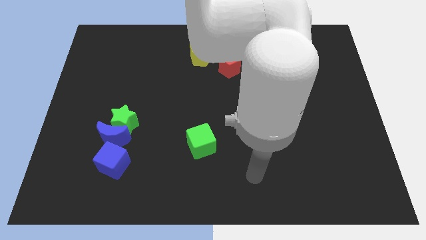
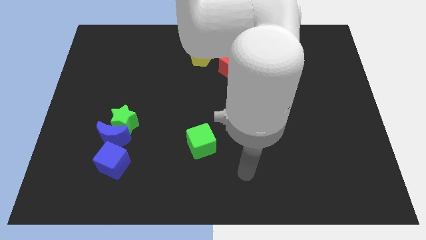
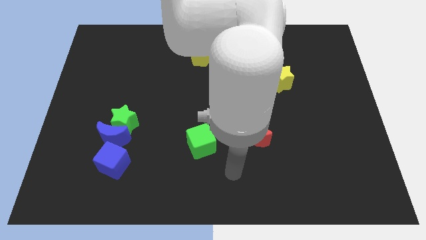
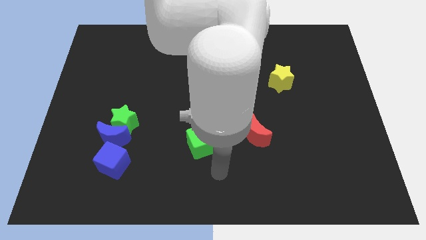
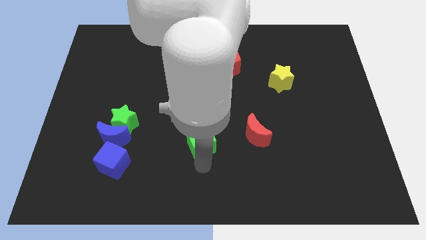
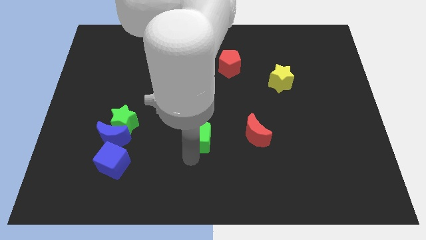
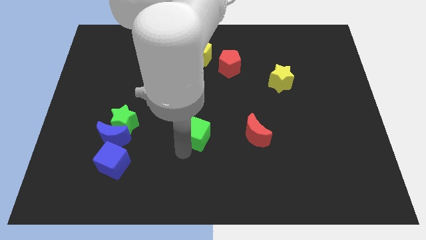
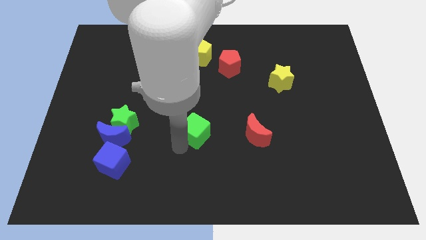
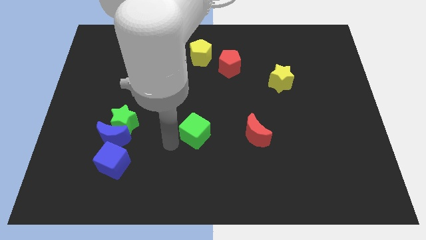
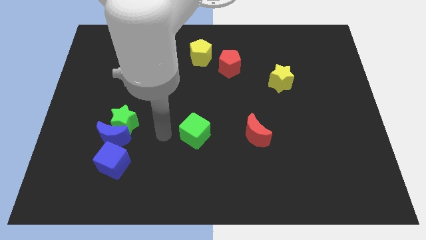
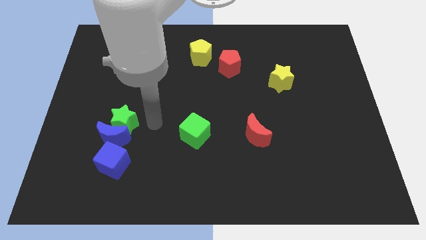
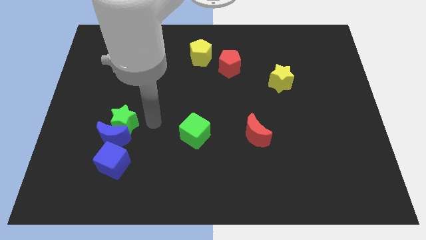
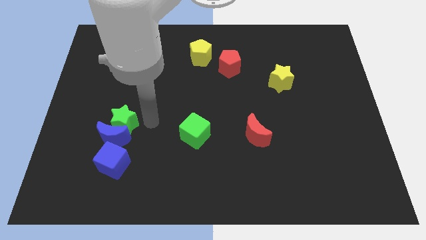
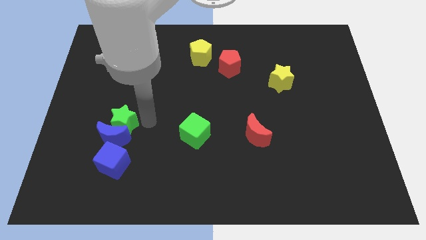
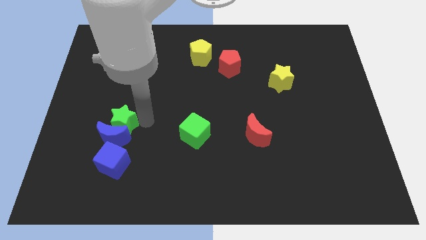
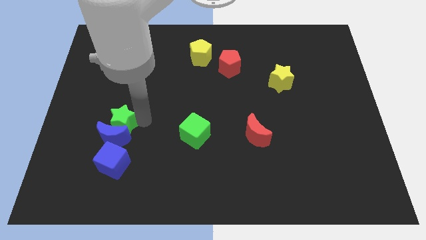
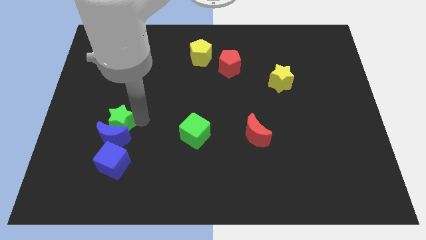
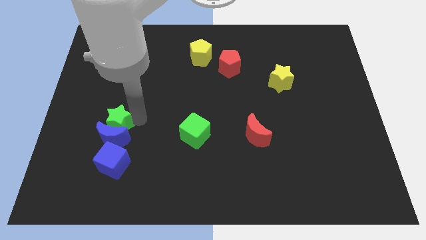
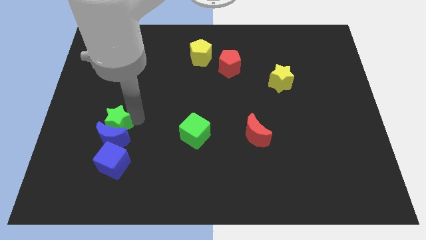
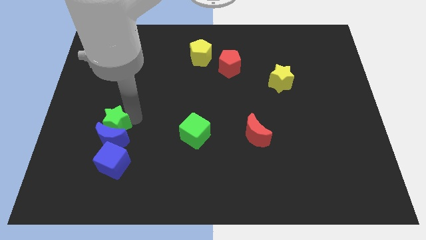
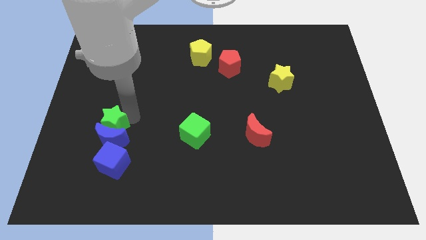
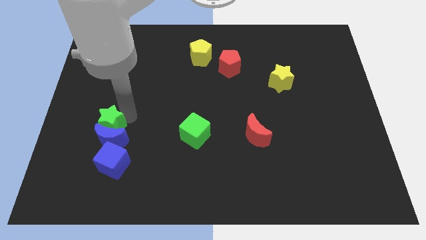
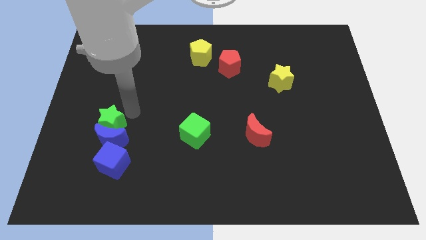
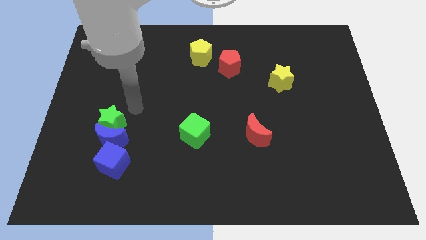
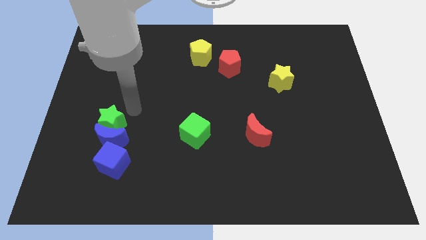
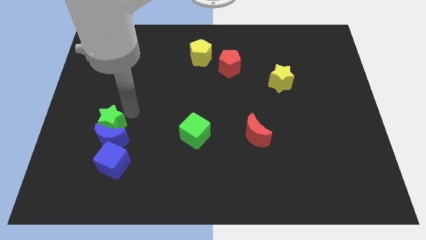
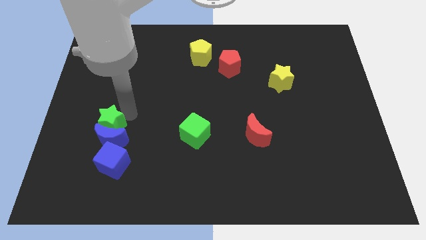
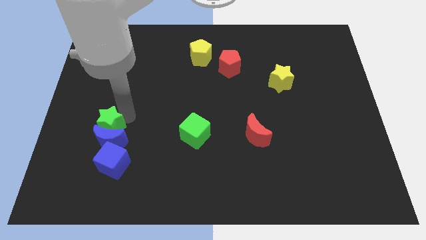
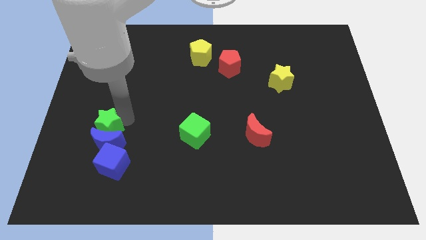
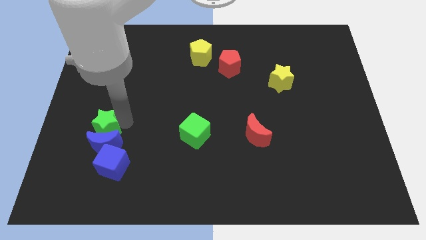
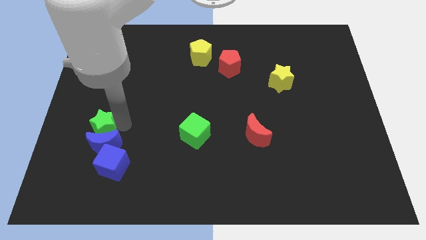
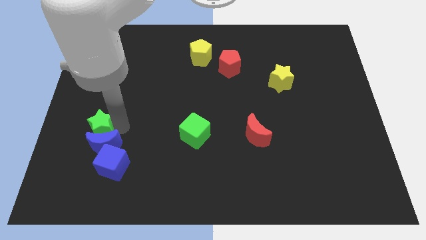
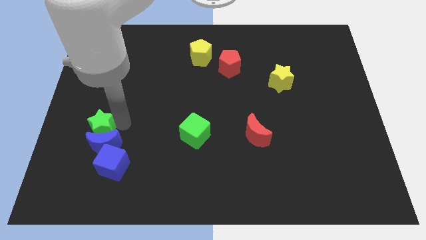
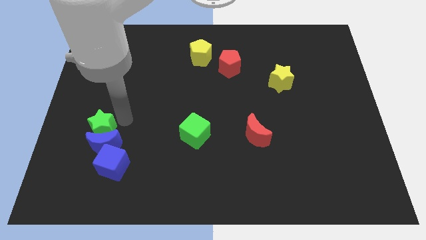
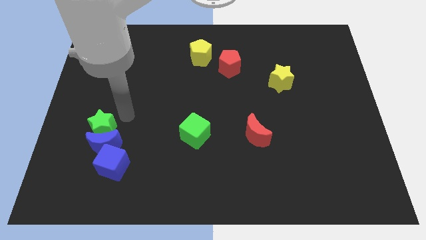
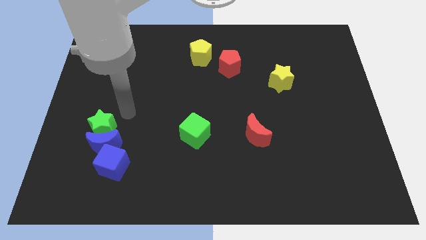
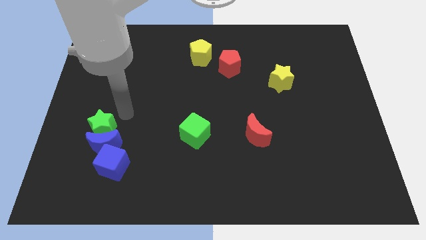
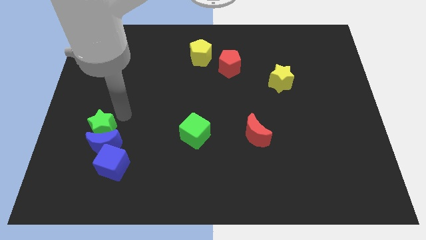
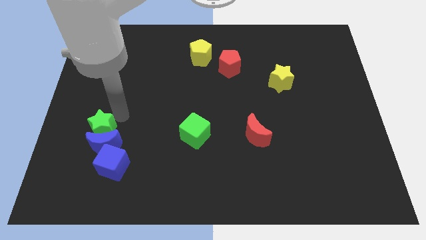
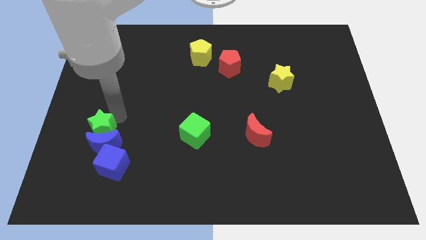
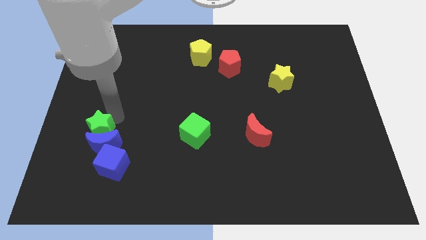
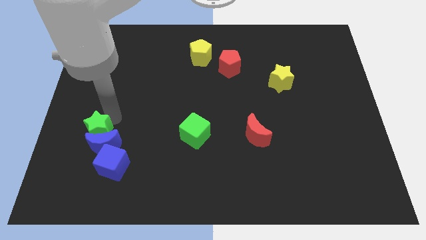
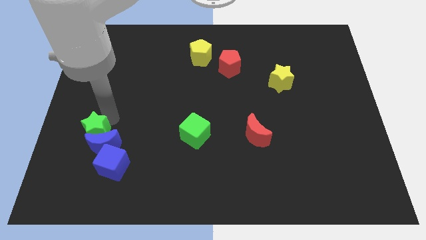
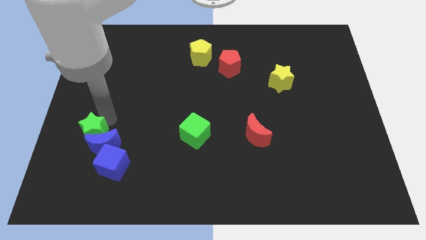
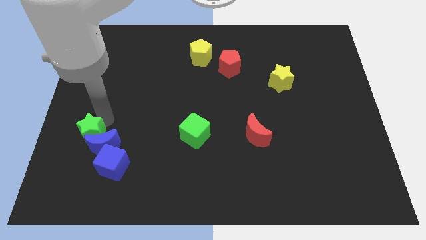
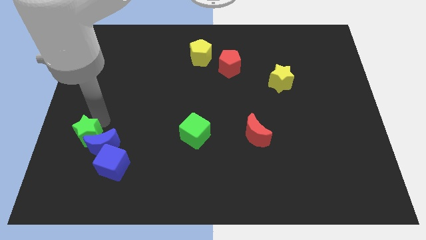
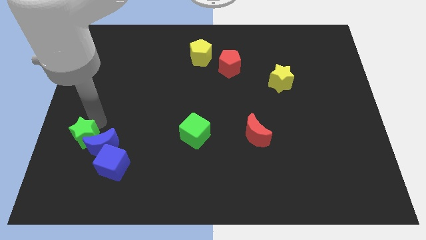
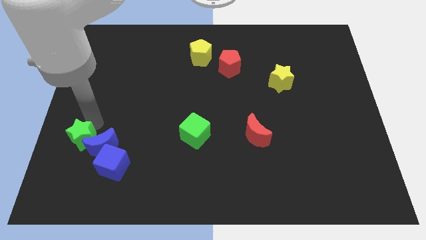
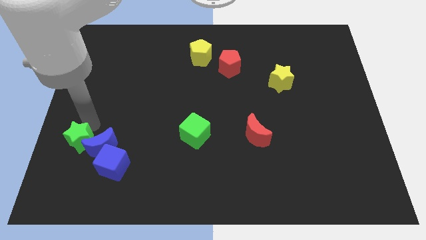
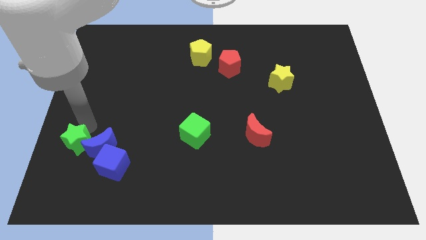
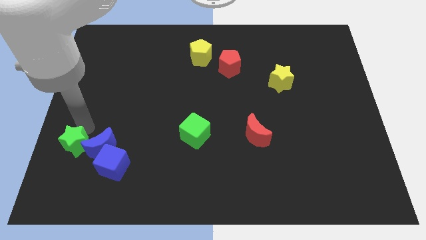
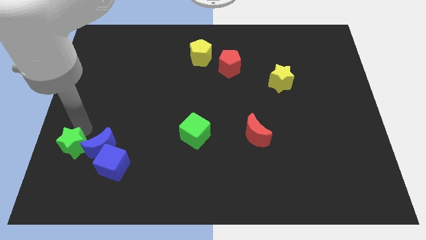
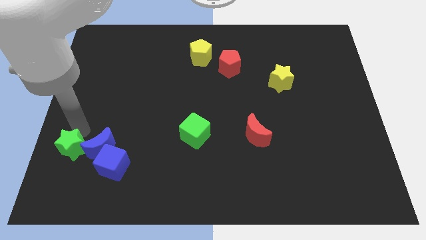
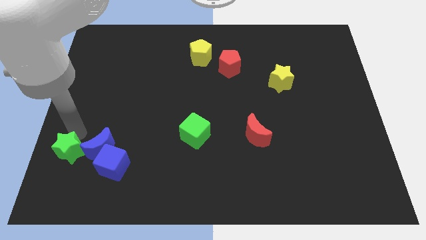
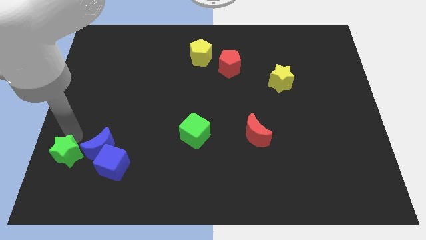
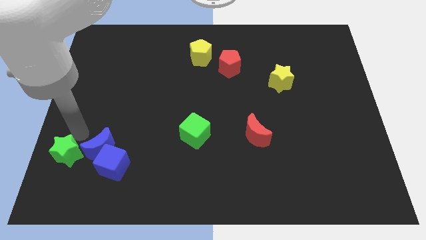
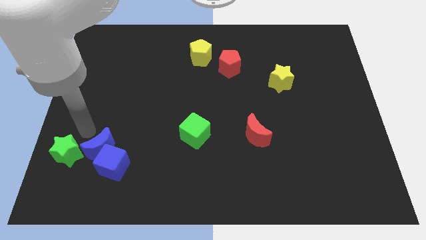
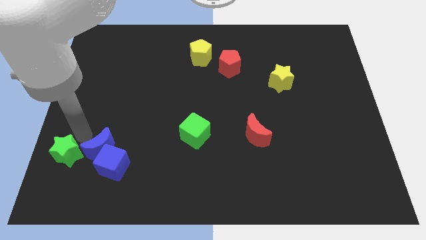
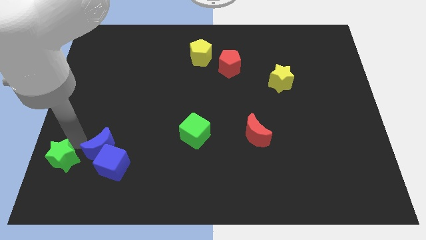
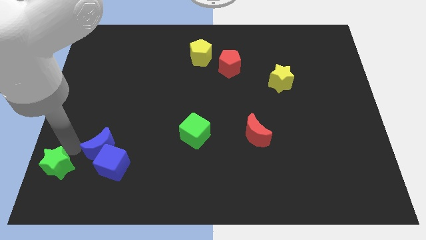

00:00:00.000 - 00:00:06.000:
slide the green star to the bottom left

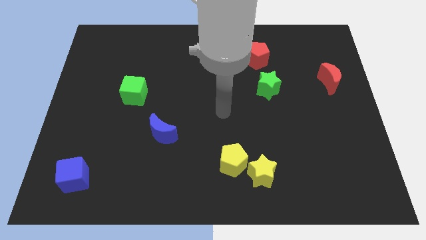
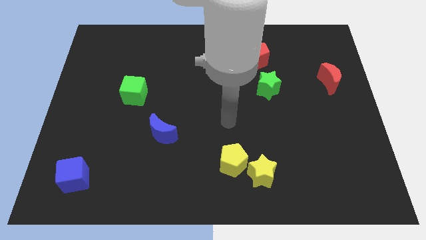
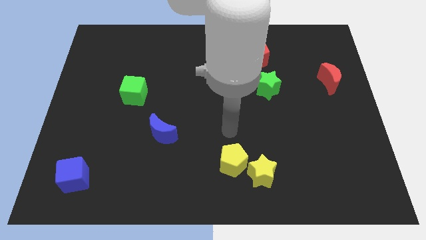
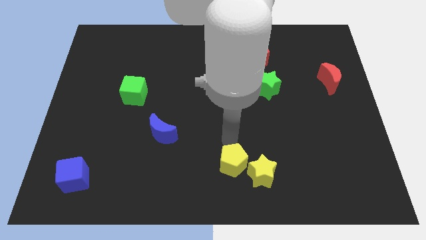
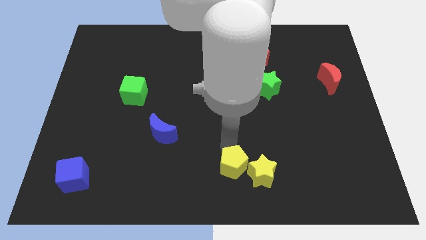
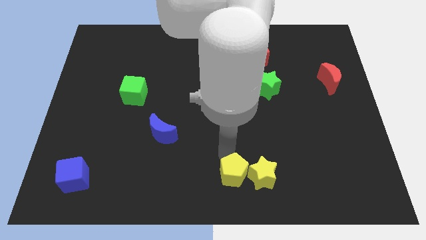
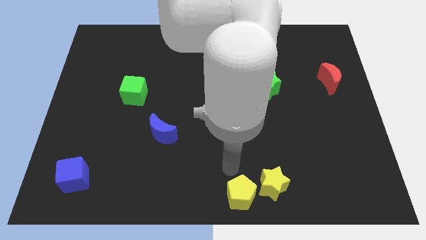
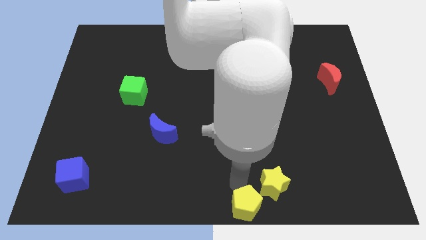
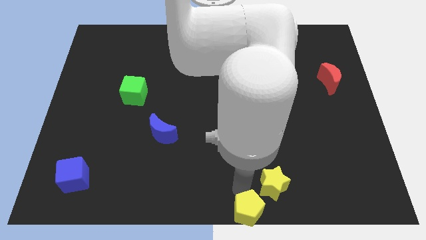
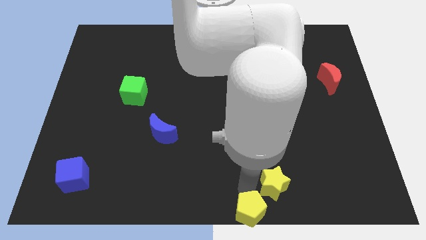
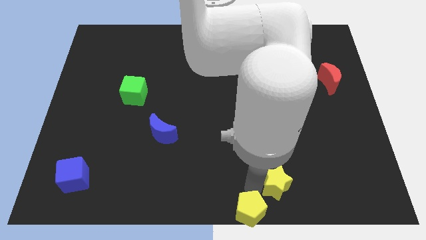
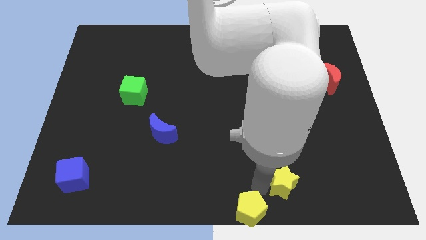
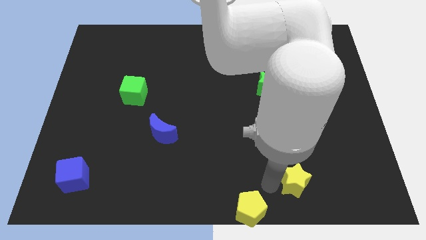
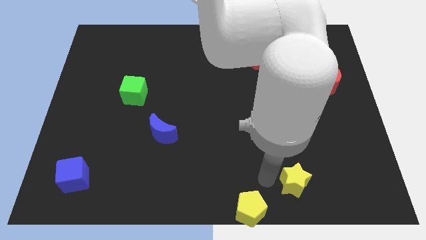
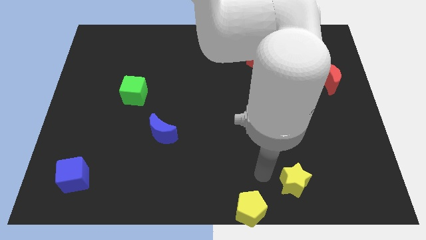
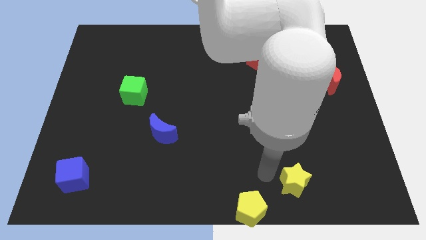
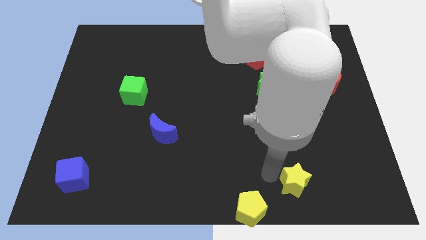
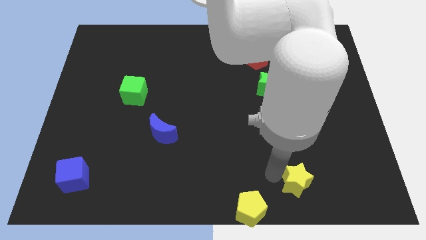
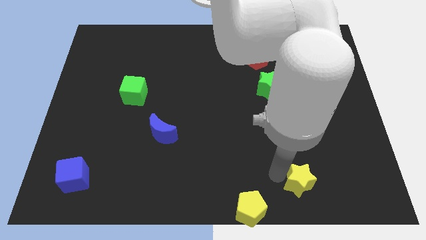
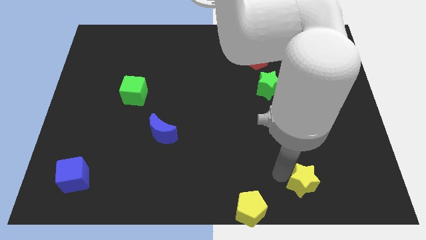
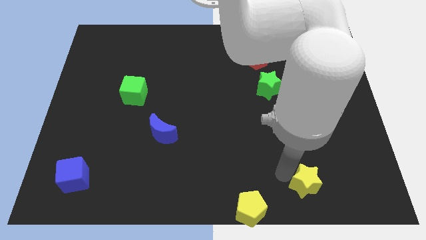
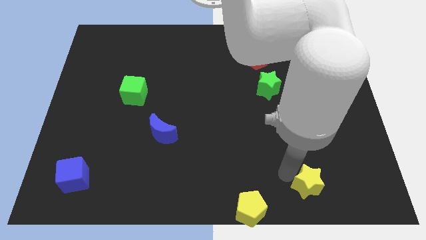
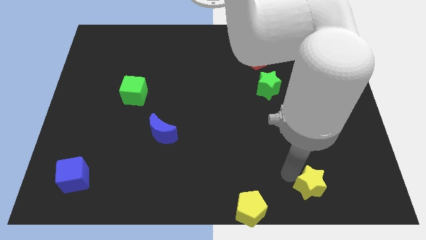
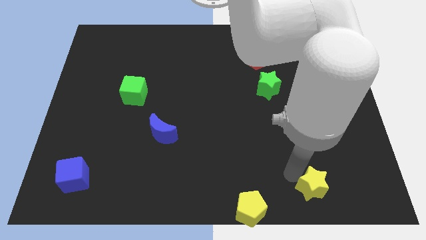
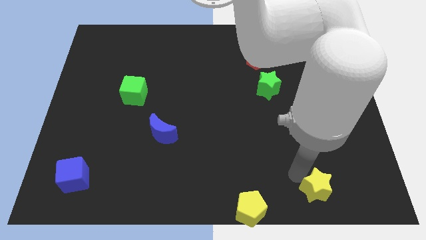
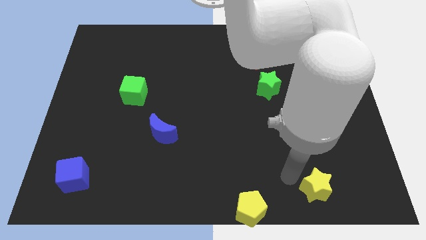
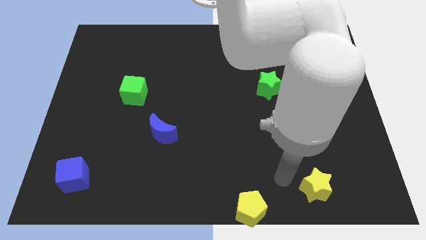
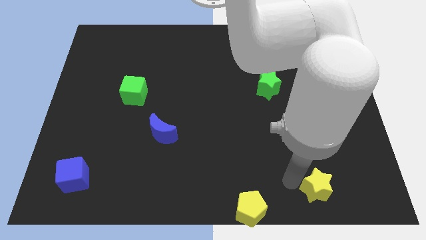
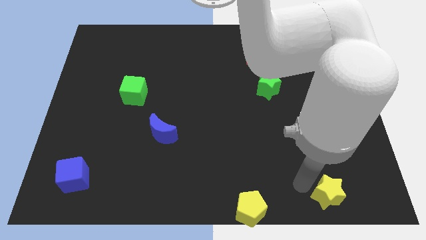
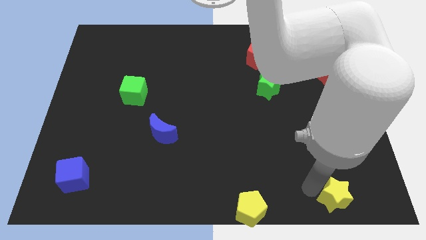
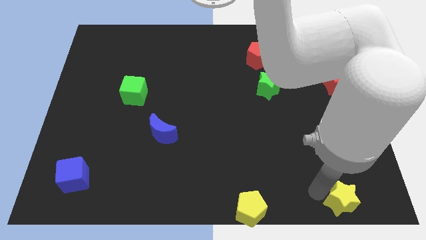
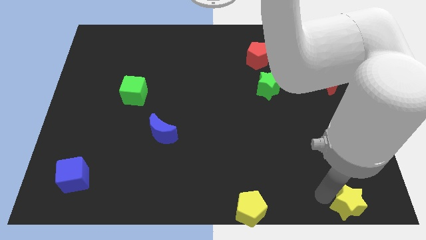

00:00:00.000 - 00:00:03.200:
move the yellow star to the bottom right
